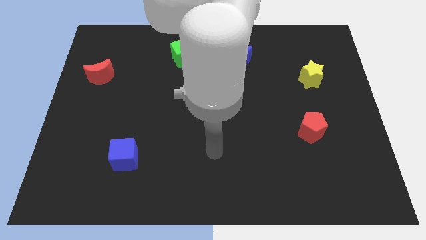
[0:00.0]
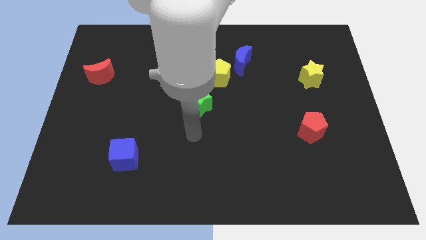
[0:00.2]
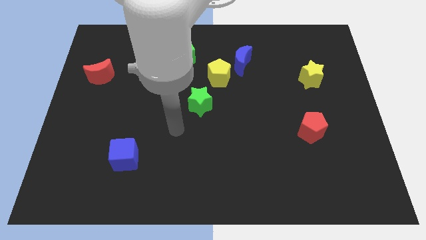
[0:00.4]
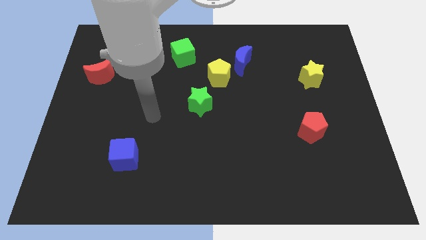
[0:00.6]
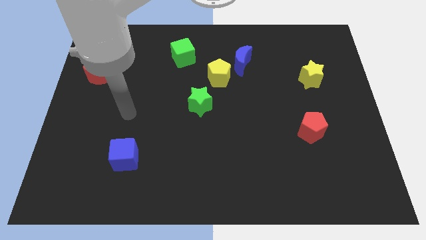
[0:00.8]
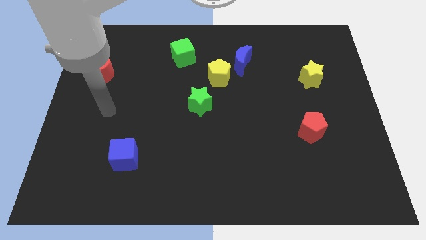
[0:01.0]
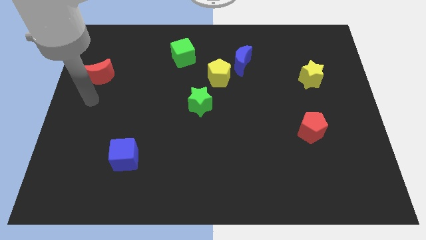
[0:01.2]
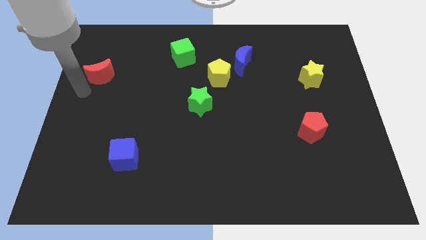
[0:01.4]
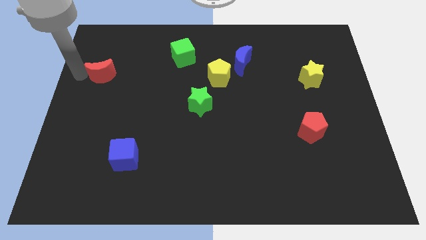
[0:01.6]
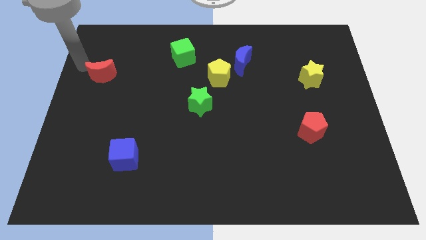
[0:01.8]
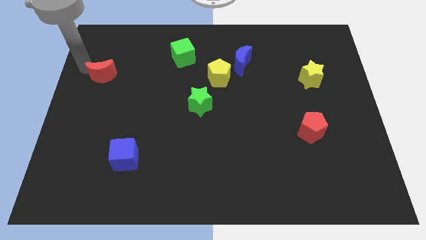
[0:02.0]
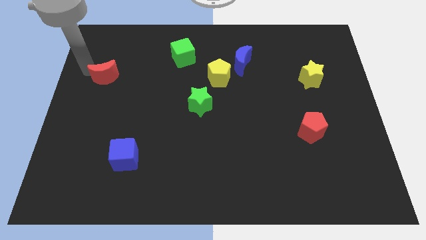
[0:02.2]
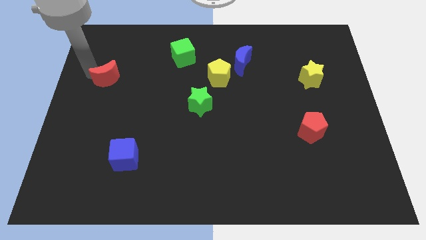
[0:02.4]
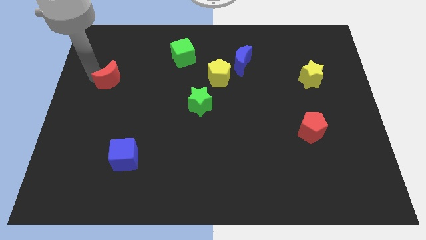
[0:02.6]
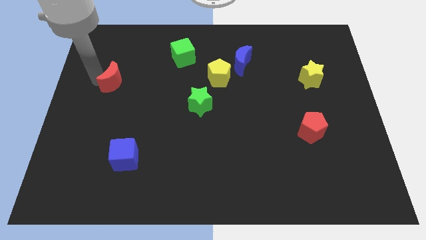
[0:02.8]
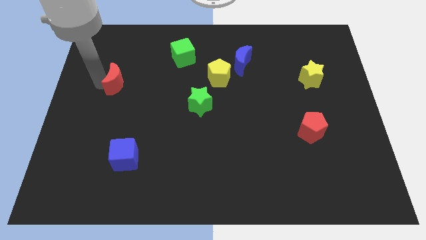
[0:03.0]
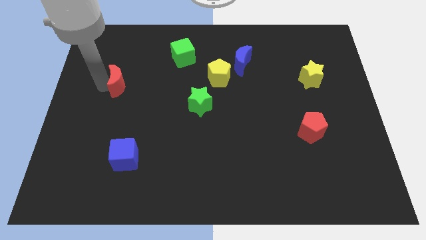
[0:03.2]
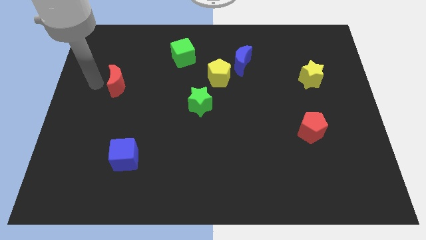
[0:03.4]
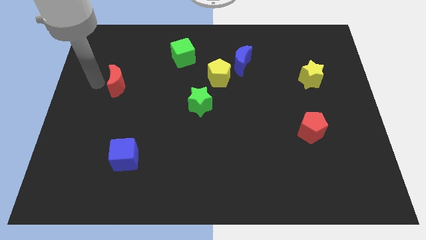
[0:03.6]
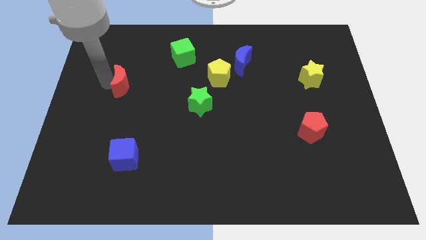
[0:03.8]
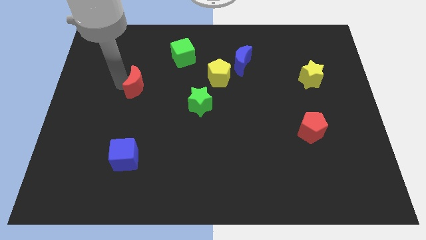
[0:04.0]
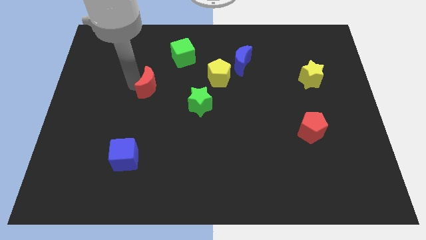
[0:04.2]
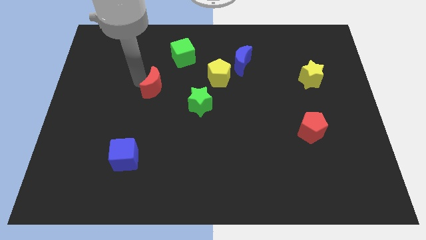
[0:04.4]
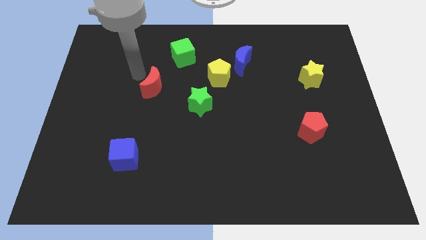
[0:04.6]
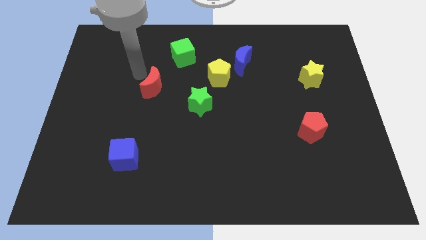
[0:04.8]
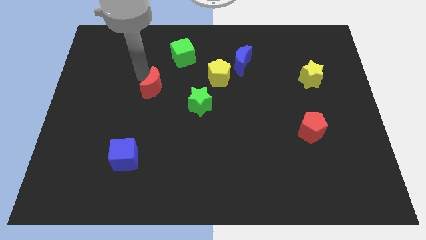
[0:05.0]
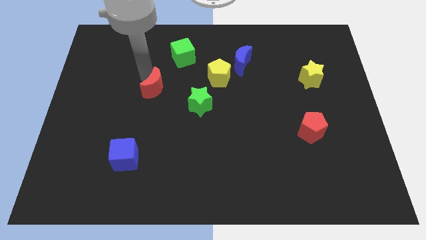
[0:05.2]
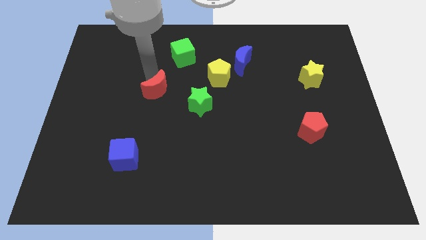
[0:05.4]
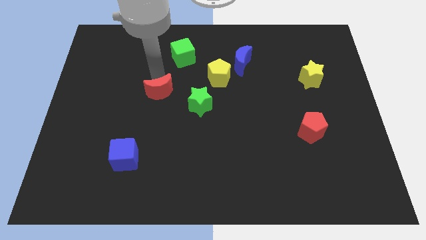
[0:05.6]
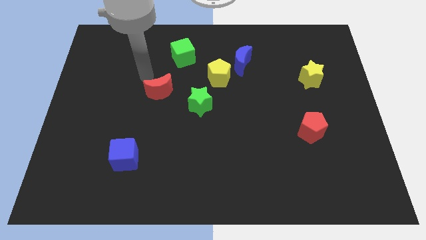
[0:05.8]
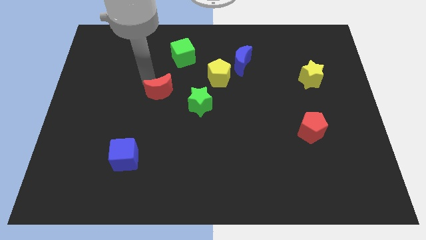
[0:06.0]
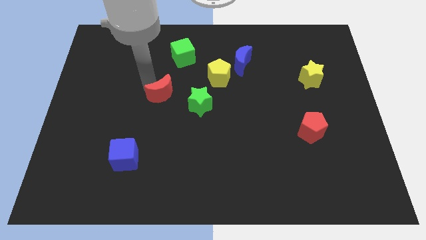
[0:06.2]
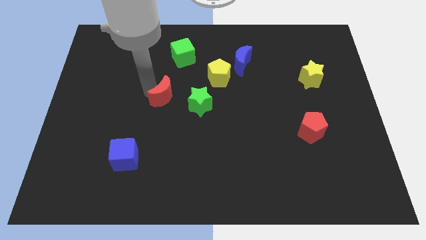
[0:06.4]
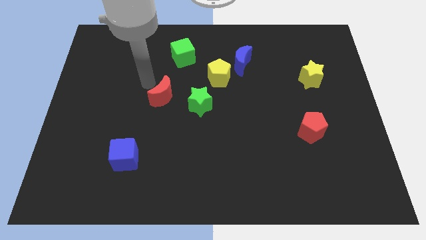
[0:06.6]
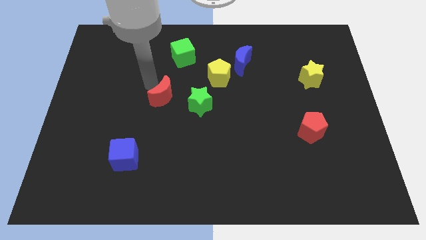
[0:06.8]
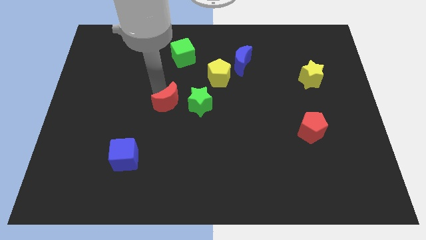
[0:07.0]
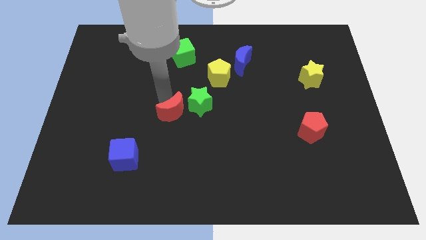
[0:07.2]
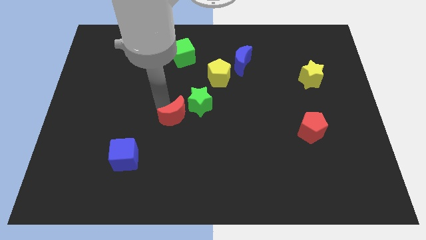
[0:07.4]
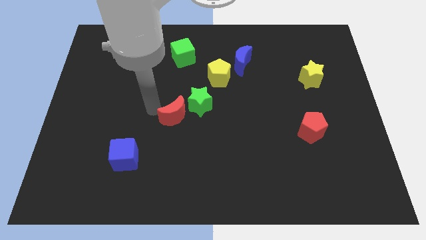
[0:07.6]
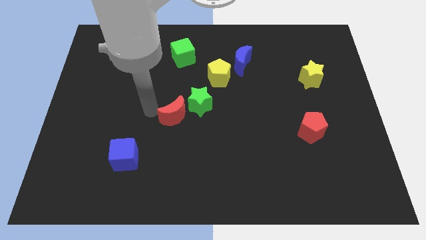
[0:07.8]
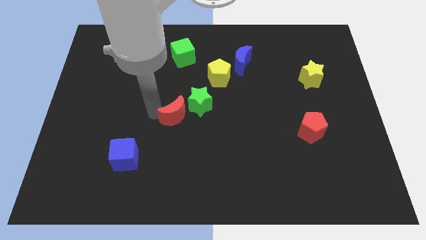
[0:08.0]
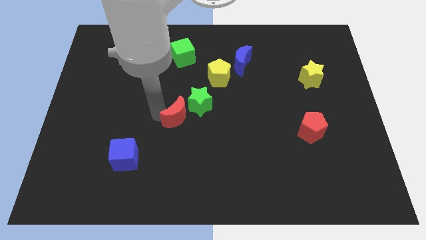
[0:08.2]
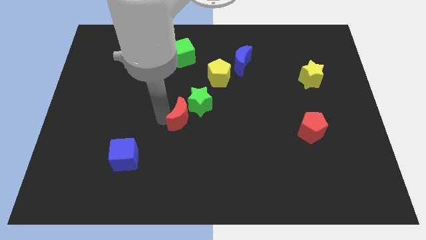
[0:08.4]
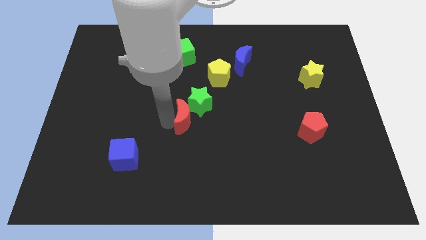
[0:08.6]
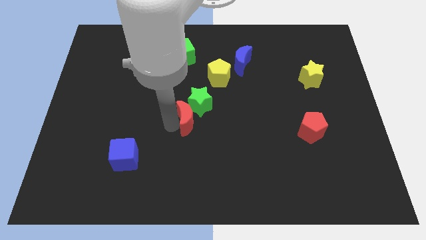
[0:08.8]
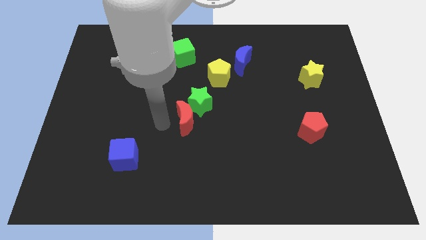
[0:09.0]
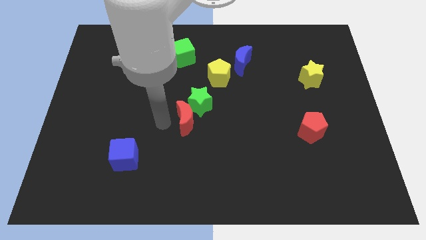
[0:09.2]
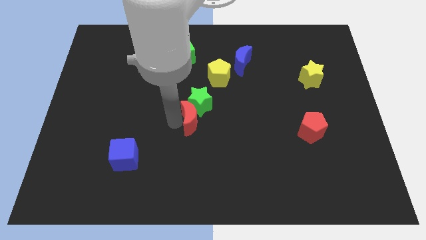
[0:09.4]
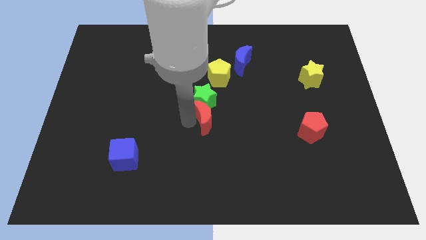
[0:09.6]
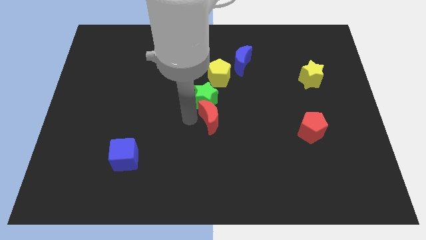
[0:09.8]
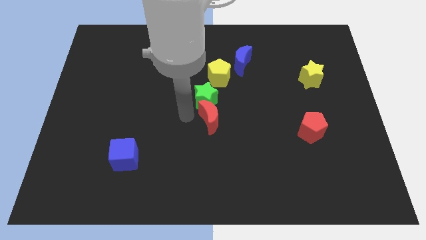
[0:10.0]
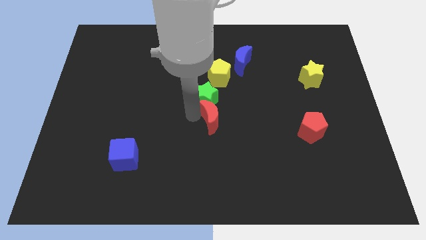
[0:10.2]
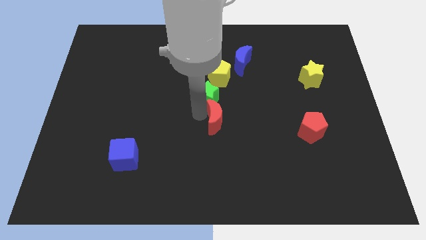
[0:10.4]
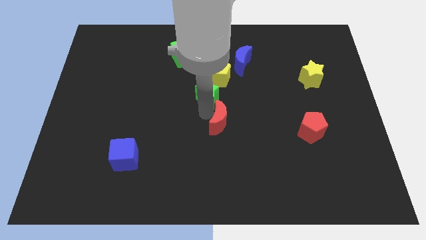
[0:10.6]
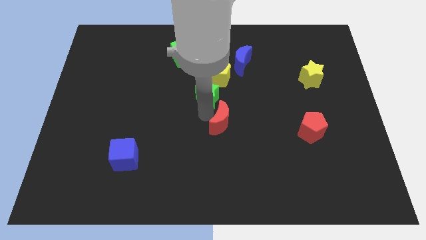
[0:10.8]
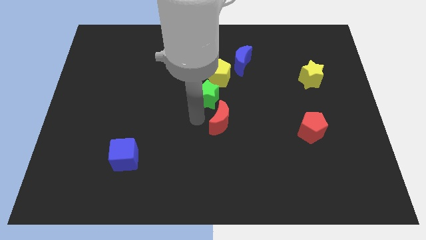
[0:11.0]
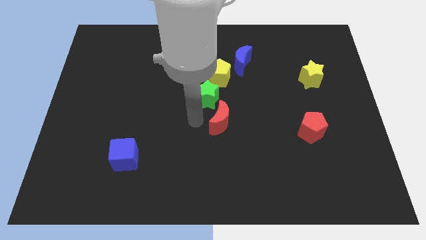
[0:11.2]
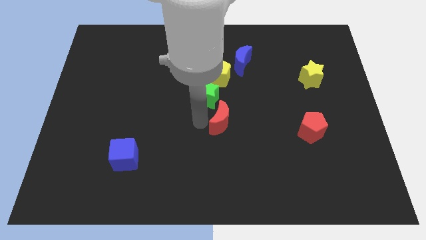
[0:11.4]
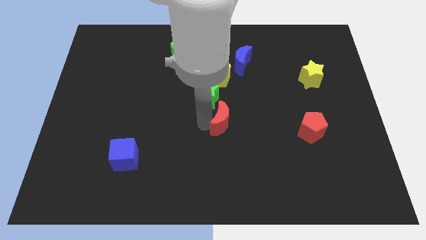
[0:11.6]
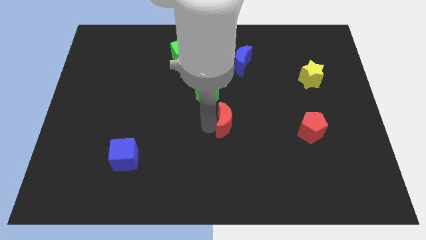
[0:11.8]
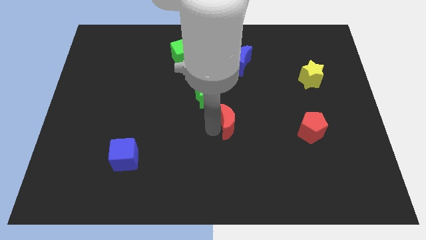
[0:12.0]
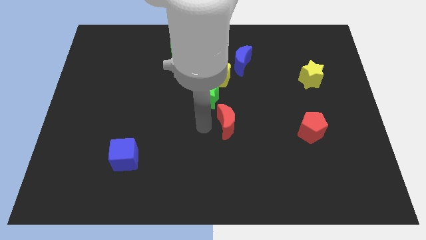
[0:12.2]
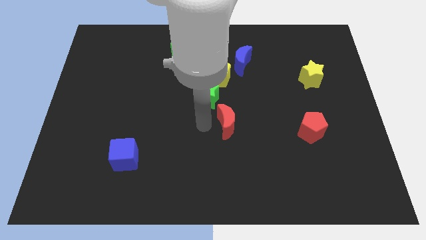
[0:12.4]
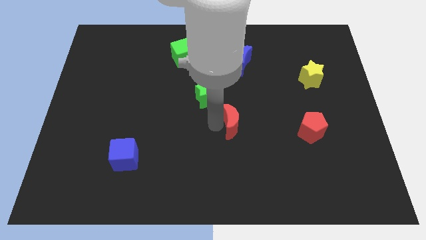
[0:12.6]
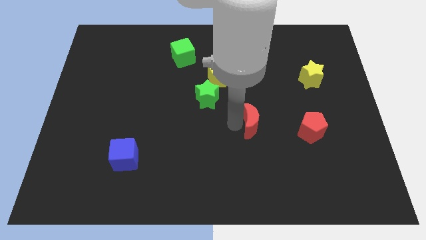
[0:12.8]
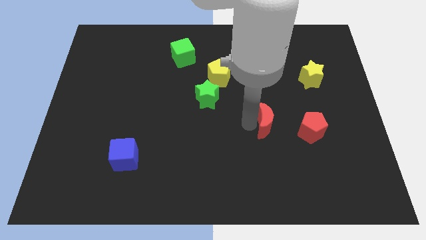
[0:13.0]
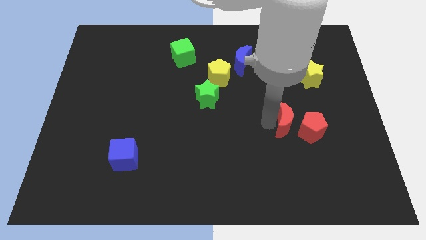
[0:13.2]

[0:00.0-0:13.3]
put the red moon next to the red pentagon

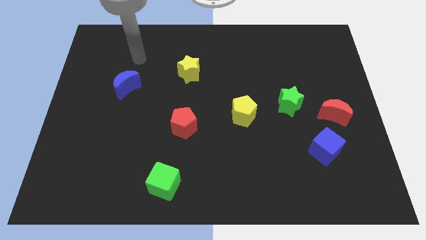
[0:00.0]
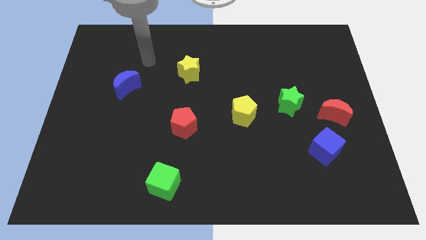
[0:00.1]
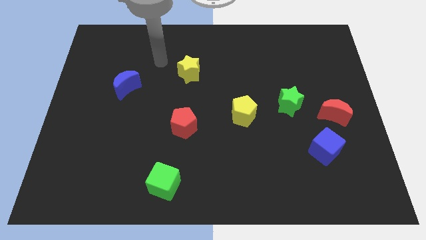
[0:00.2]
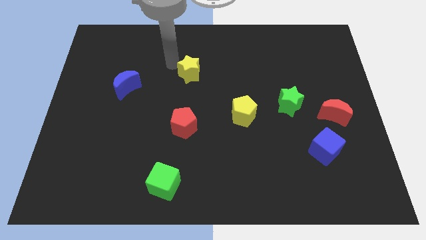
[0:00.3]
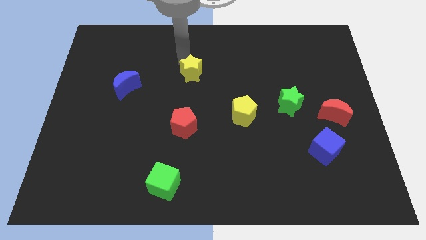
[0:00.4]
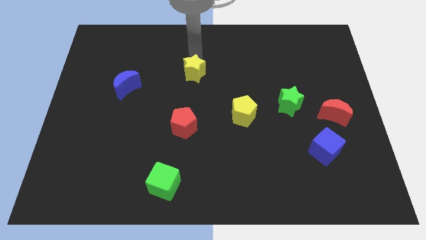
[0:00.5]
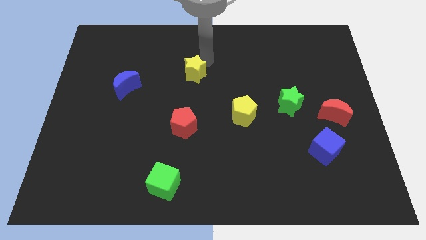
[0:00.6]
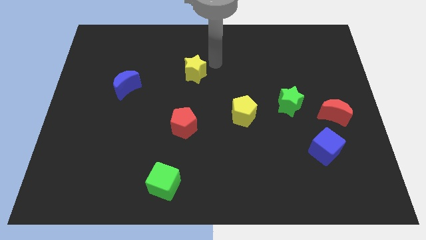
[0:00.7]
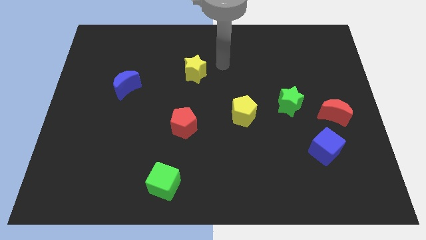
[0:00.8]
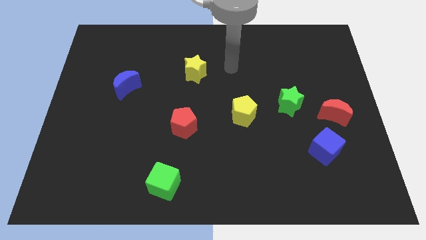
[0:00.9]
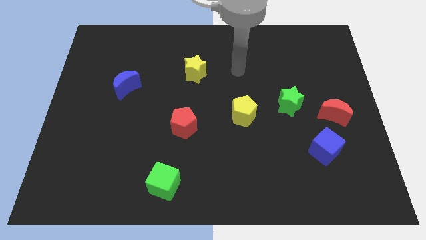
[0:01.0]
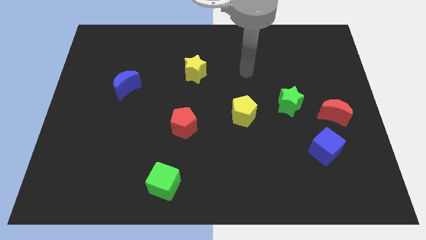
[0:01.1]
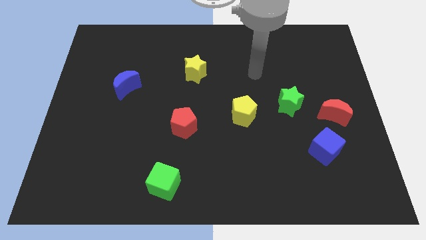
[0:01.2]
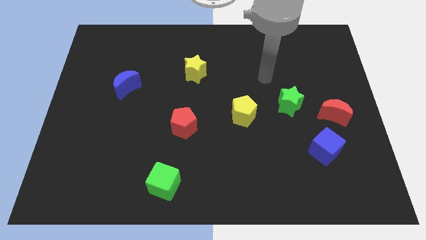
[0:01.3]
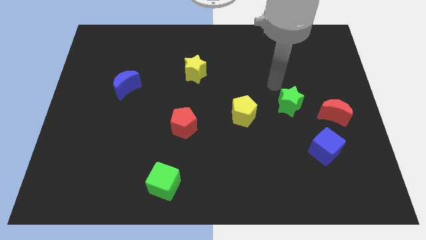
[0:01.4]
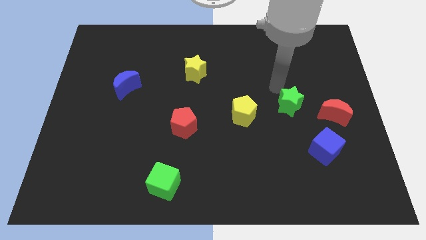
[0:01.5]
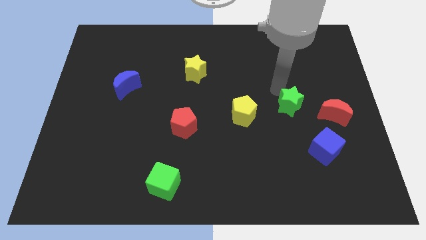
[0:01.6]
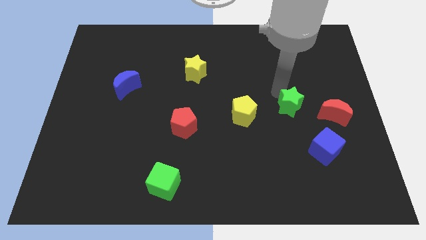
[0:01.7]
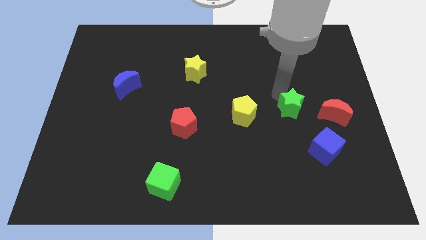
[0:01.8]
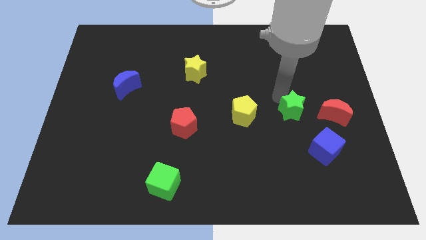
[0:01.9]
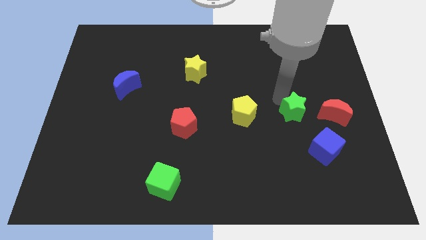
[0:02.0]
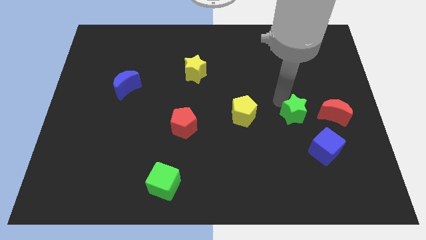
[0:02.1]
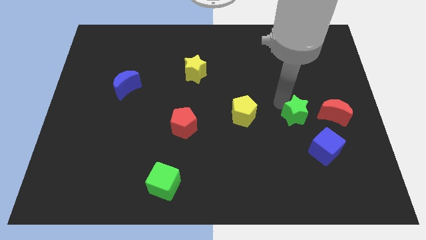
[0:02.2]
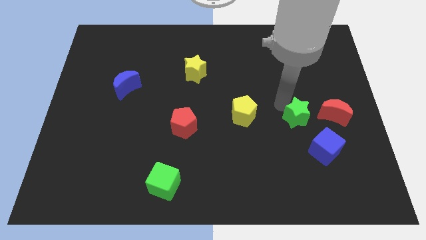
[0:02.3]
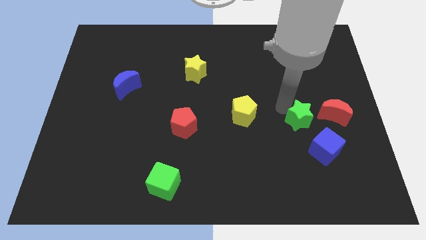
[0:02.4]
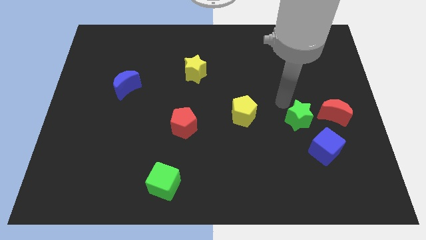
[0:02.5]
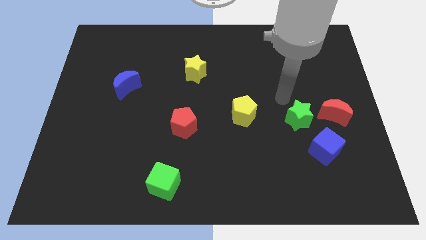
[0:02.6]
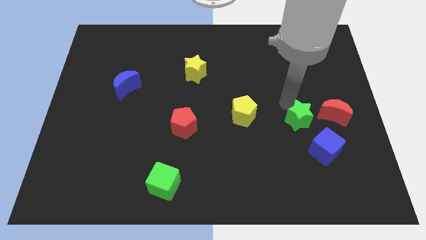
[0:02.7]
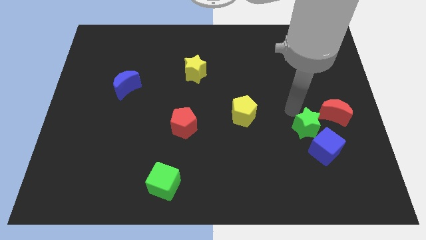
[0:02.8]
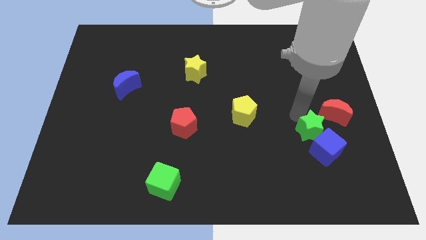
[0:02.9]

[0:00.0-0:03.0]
slide the green star close to the blue cube
